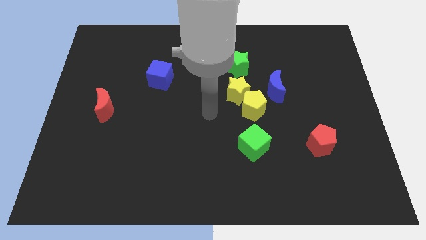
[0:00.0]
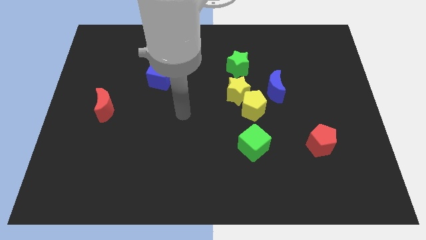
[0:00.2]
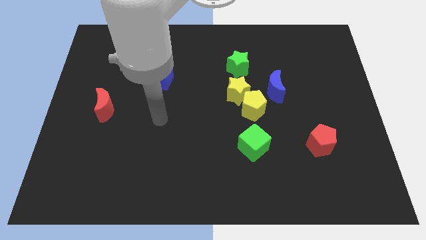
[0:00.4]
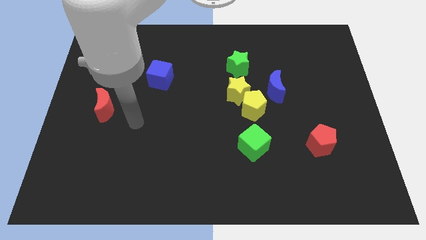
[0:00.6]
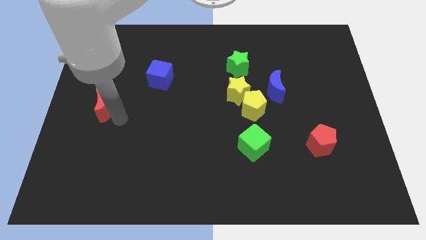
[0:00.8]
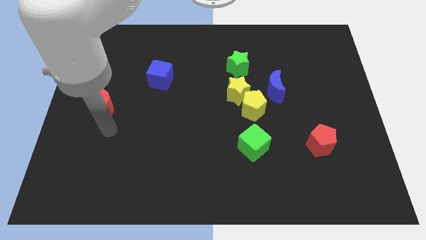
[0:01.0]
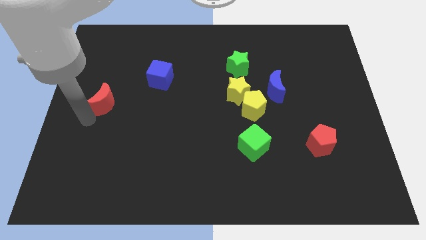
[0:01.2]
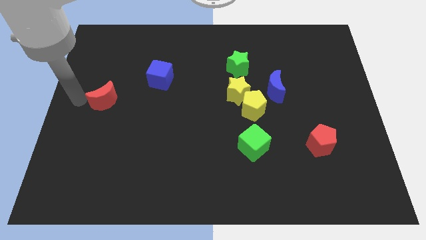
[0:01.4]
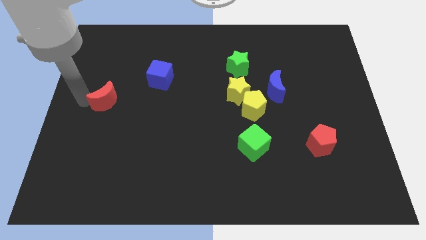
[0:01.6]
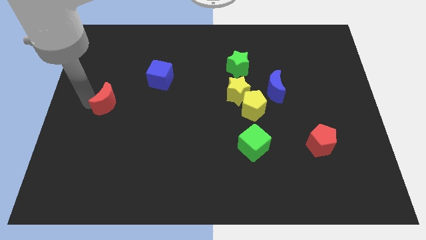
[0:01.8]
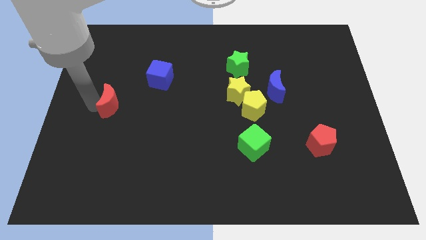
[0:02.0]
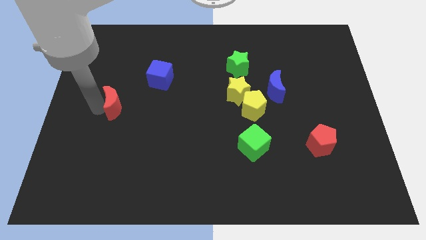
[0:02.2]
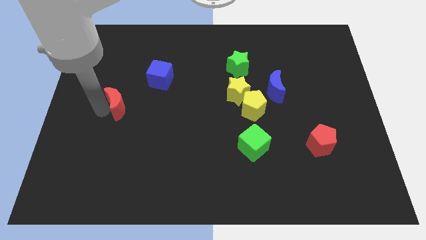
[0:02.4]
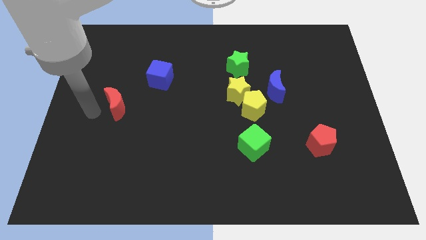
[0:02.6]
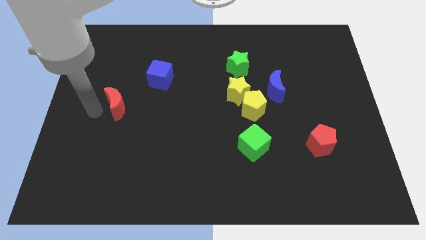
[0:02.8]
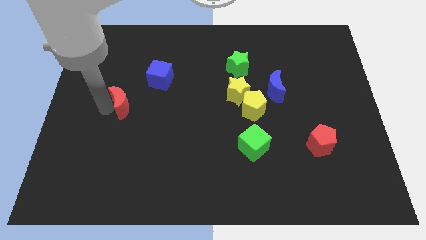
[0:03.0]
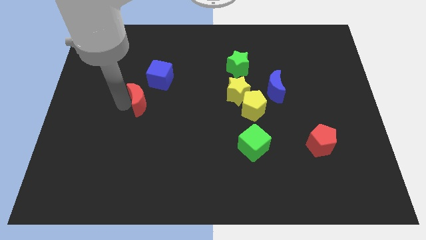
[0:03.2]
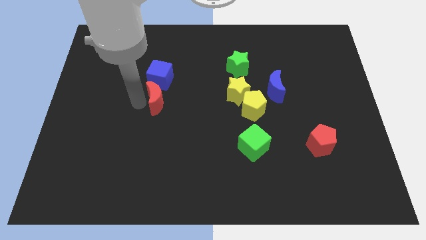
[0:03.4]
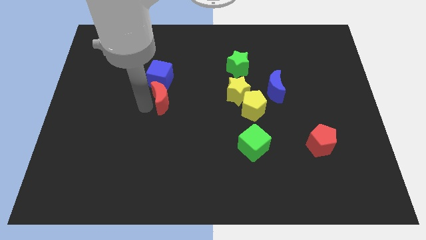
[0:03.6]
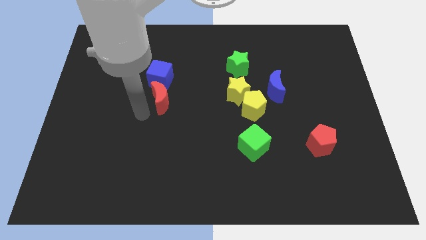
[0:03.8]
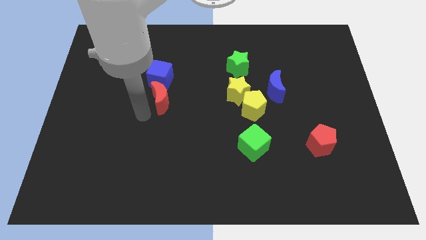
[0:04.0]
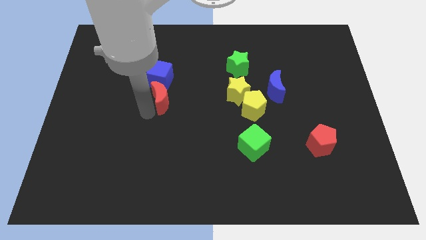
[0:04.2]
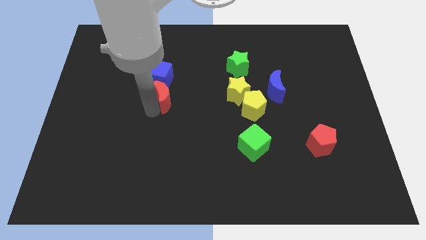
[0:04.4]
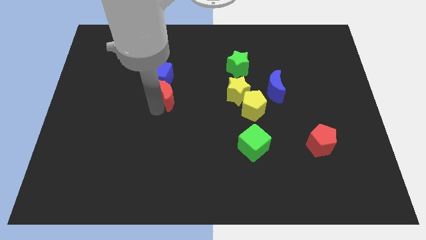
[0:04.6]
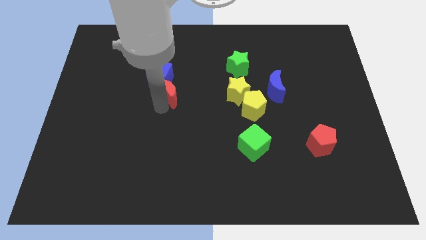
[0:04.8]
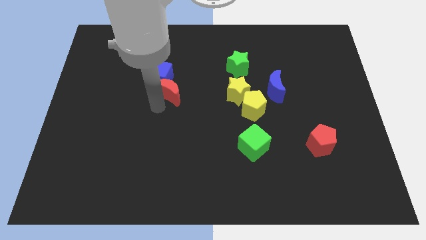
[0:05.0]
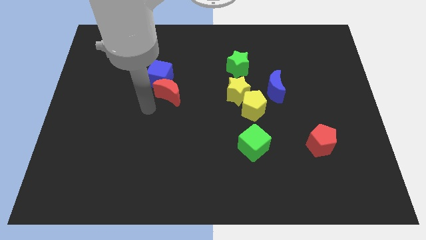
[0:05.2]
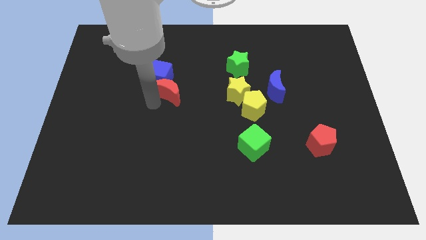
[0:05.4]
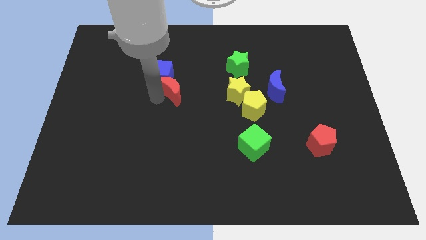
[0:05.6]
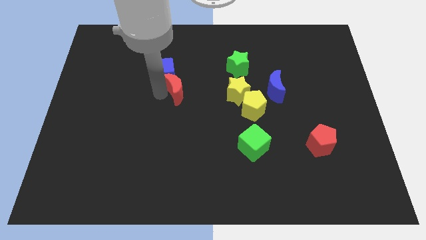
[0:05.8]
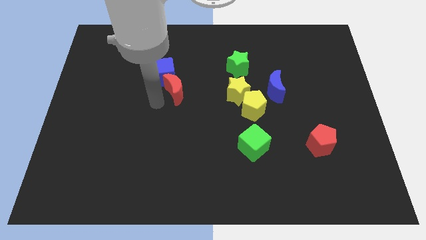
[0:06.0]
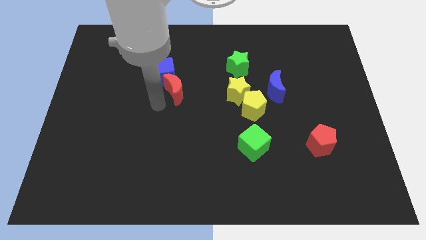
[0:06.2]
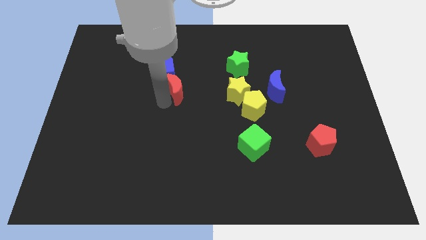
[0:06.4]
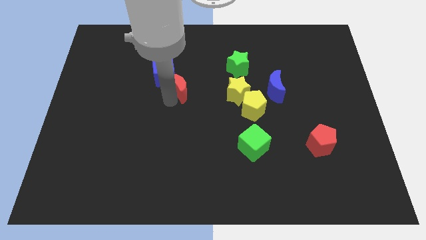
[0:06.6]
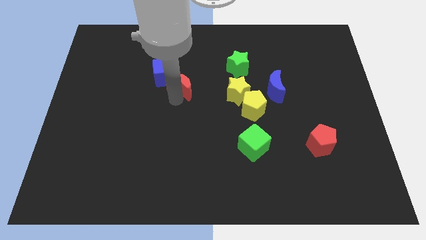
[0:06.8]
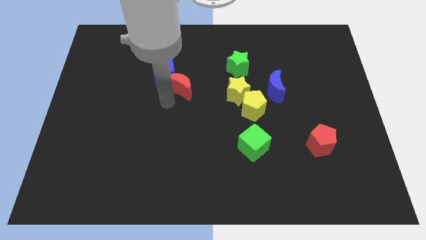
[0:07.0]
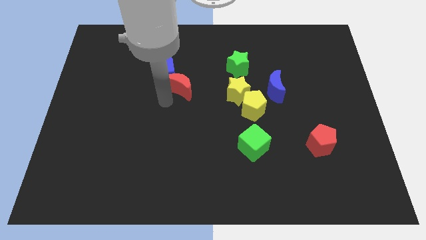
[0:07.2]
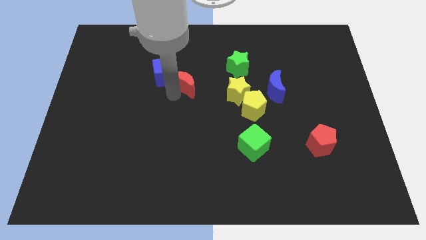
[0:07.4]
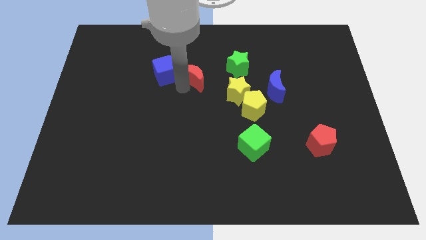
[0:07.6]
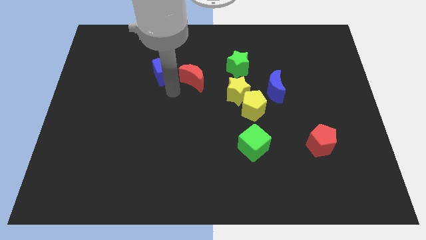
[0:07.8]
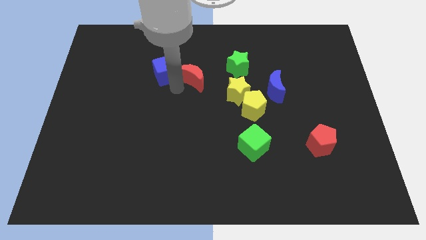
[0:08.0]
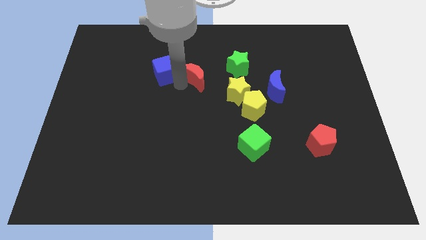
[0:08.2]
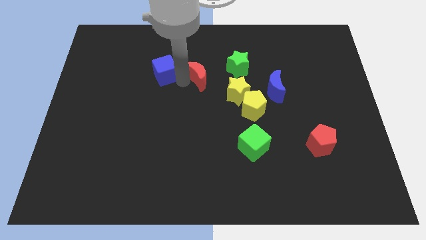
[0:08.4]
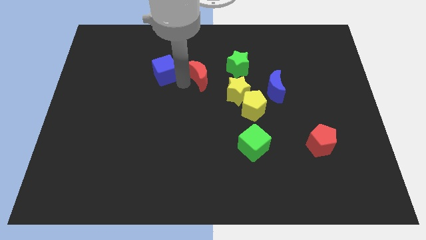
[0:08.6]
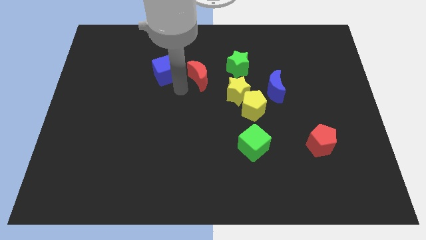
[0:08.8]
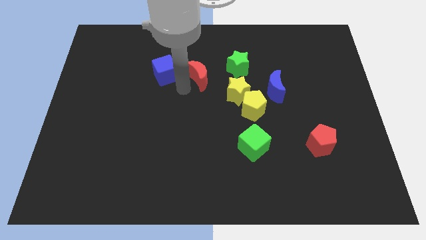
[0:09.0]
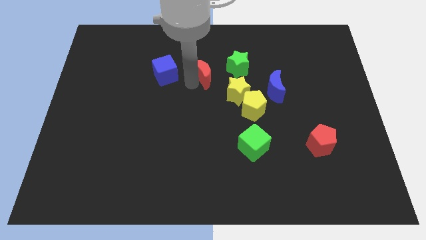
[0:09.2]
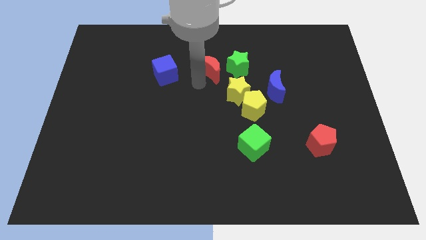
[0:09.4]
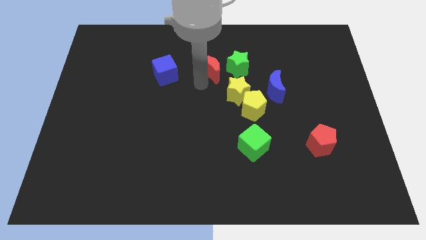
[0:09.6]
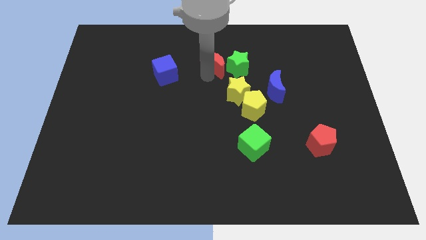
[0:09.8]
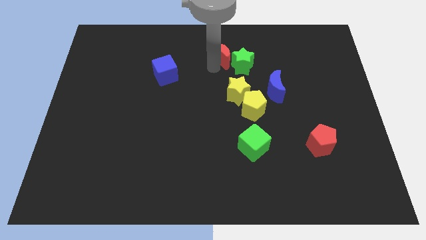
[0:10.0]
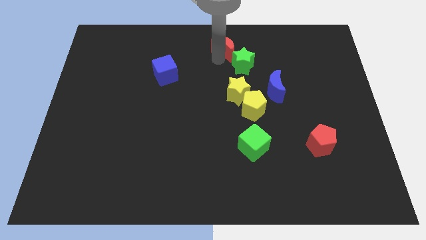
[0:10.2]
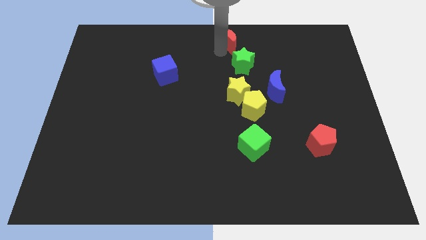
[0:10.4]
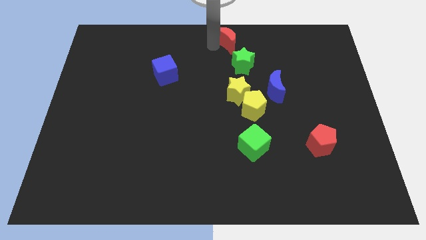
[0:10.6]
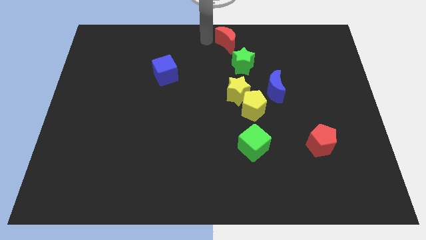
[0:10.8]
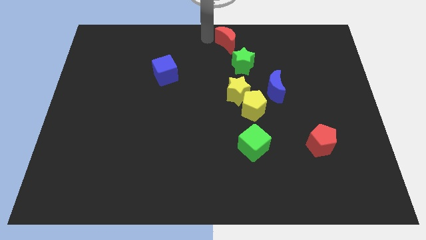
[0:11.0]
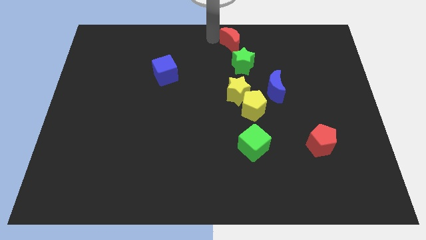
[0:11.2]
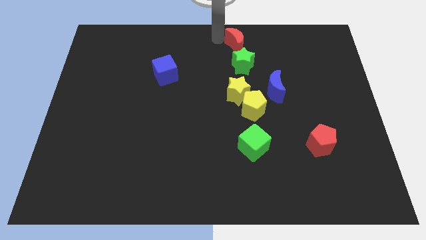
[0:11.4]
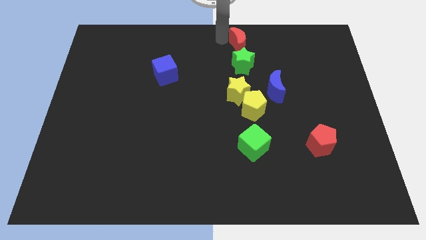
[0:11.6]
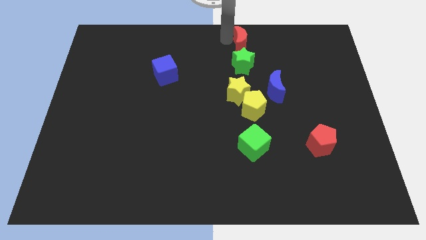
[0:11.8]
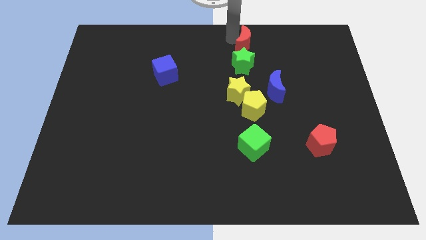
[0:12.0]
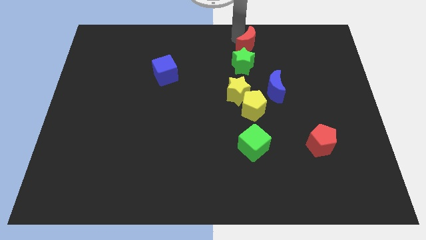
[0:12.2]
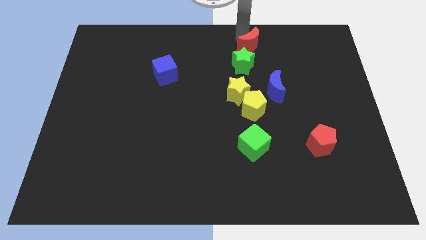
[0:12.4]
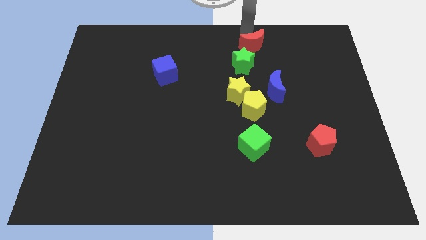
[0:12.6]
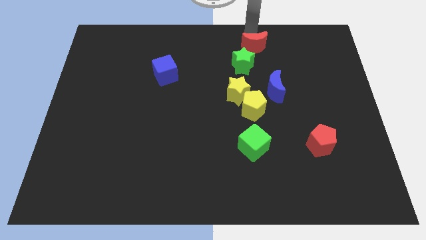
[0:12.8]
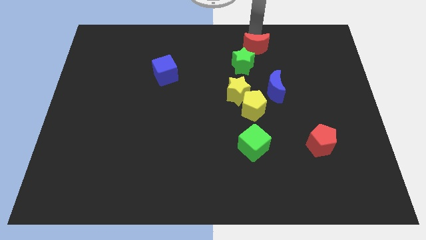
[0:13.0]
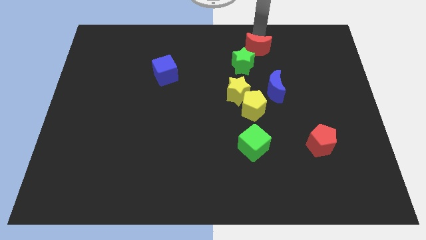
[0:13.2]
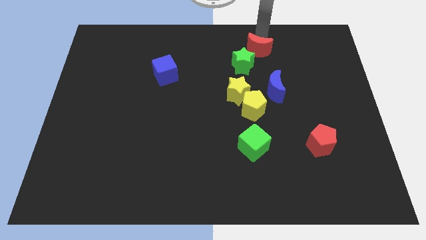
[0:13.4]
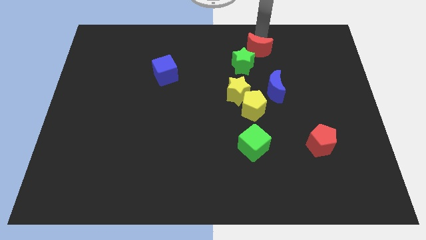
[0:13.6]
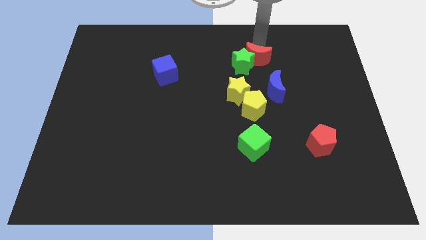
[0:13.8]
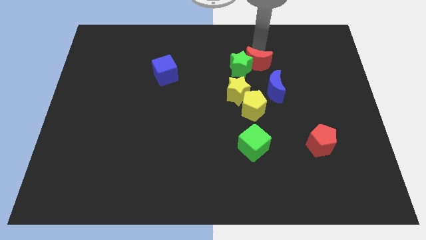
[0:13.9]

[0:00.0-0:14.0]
slide the red moon diagonally up and to the left of the blue moon
